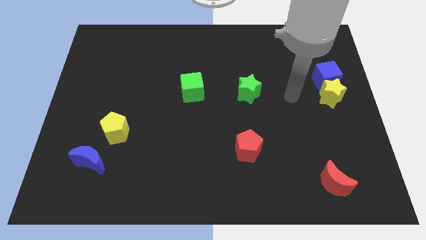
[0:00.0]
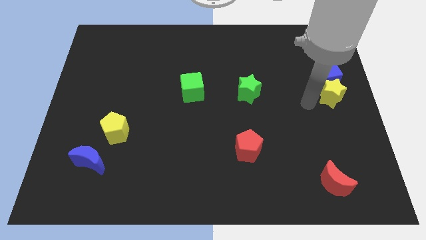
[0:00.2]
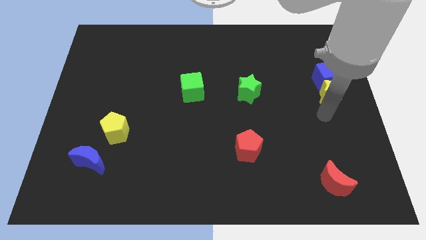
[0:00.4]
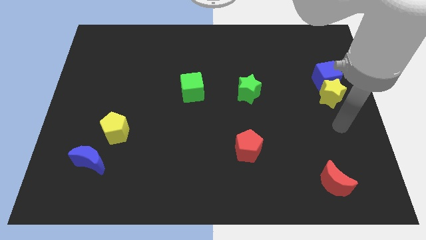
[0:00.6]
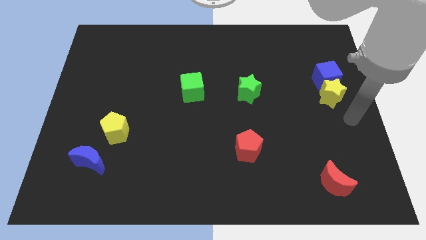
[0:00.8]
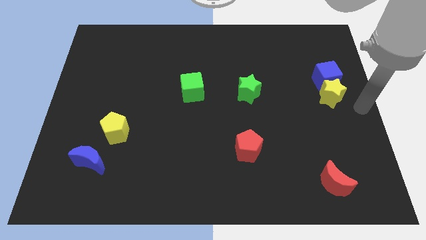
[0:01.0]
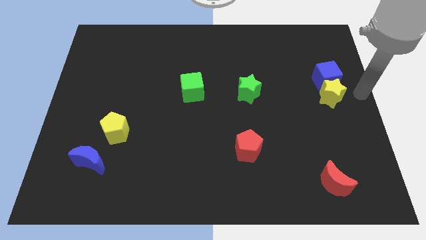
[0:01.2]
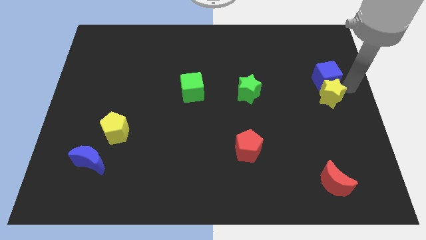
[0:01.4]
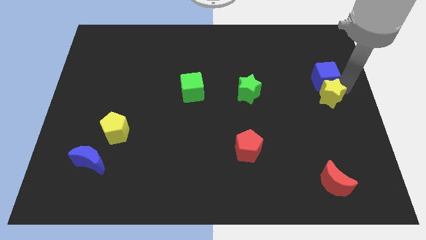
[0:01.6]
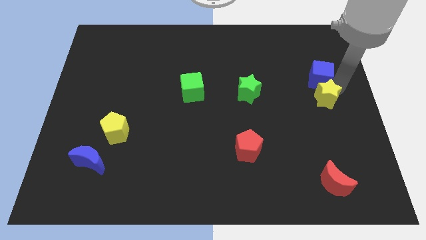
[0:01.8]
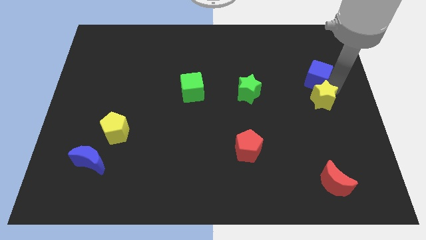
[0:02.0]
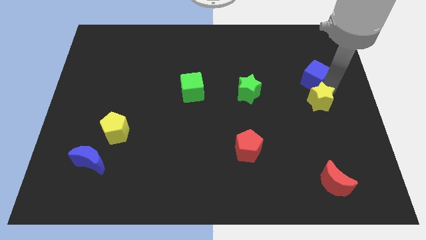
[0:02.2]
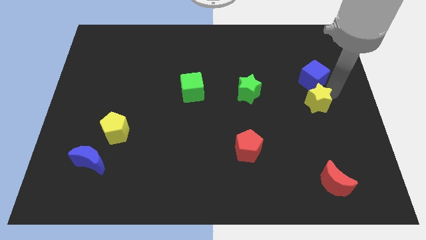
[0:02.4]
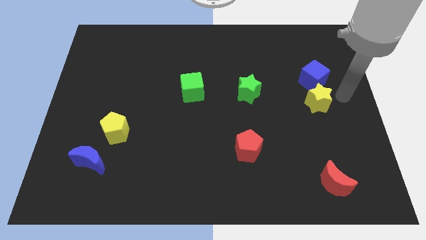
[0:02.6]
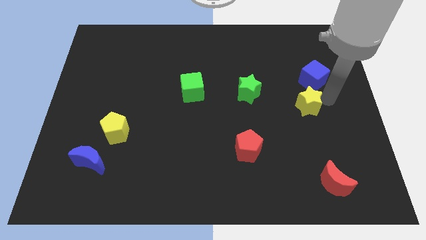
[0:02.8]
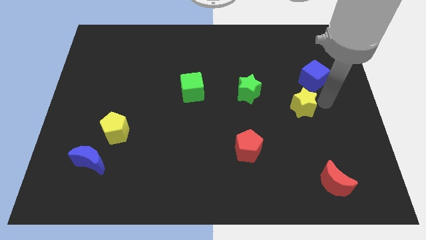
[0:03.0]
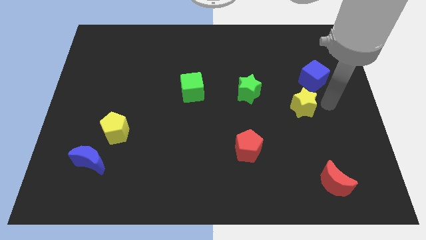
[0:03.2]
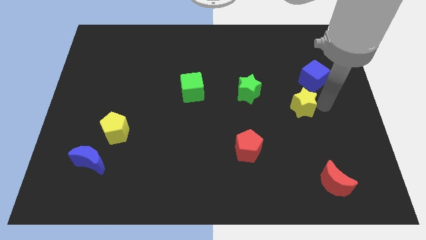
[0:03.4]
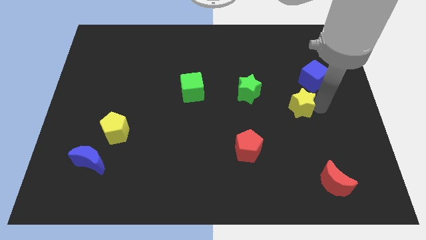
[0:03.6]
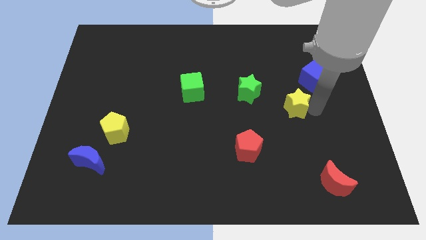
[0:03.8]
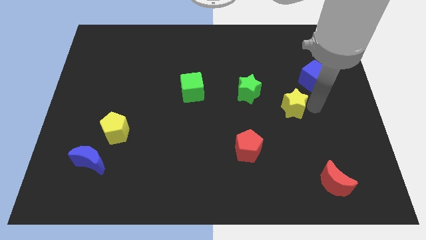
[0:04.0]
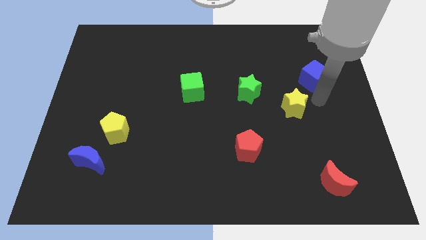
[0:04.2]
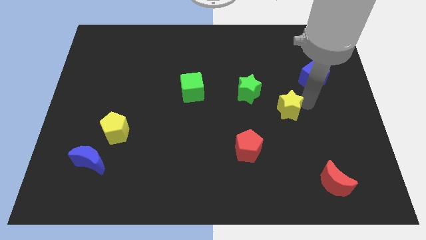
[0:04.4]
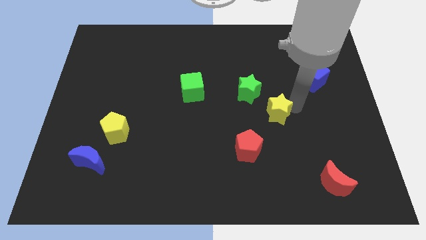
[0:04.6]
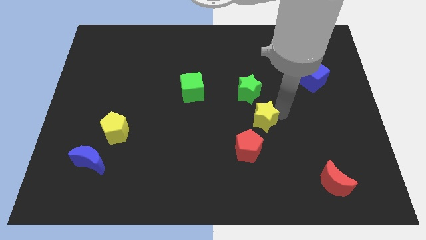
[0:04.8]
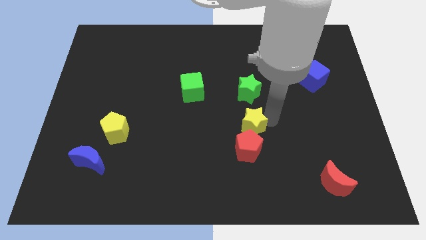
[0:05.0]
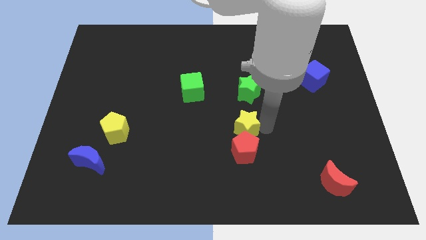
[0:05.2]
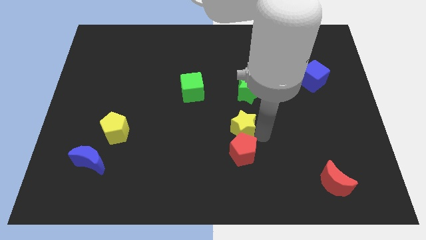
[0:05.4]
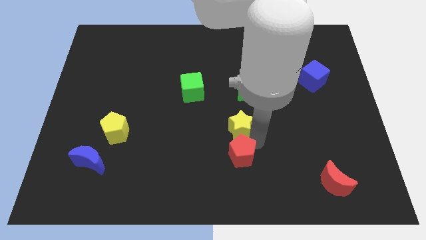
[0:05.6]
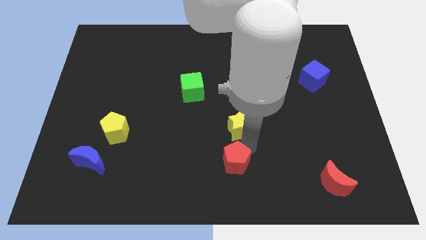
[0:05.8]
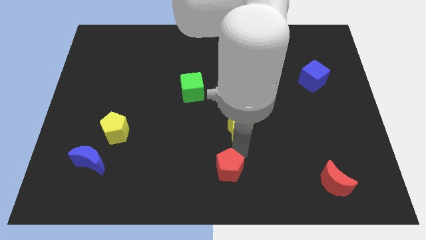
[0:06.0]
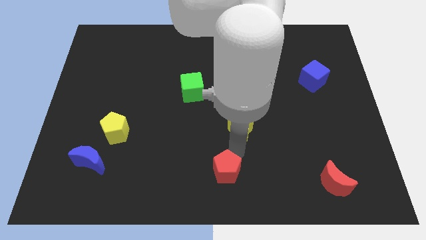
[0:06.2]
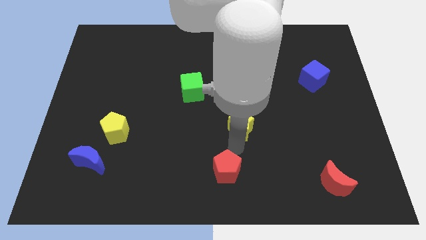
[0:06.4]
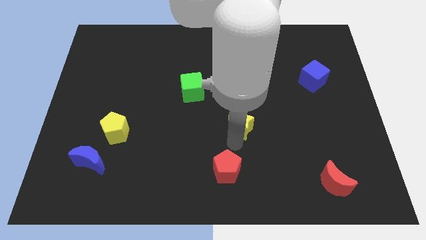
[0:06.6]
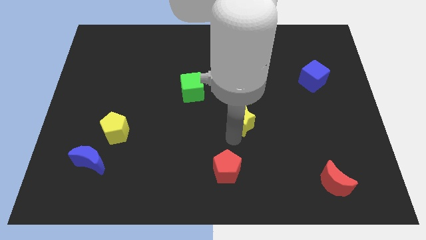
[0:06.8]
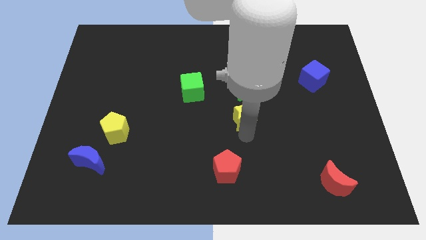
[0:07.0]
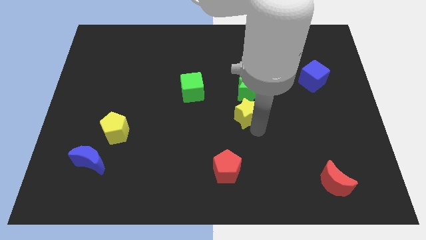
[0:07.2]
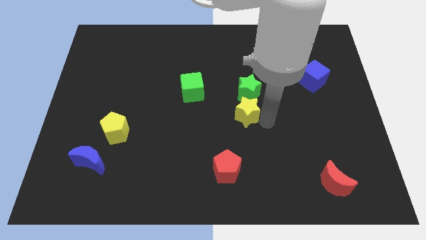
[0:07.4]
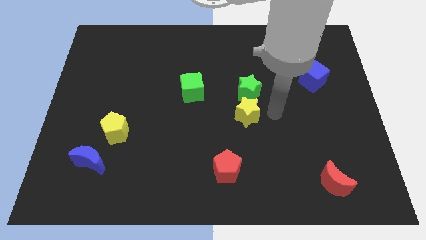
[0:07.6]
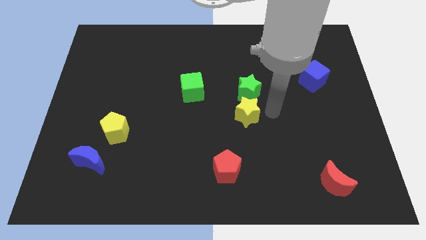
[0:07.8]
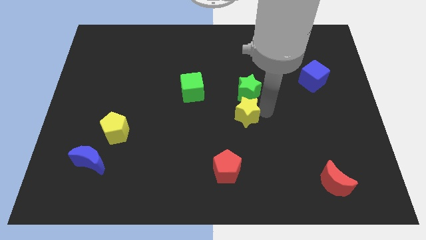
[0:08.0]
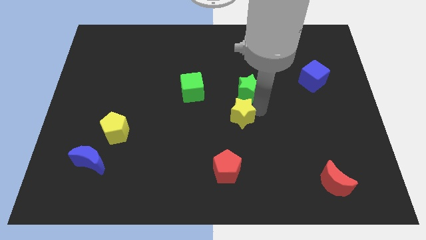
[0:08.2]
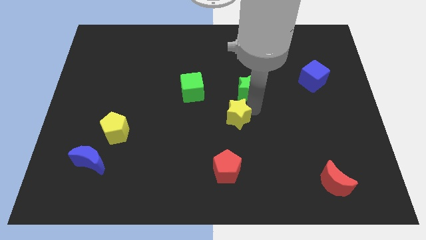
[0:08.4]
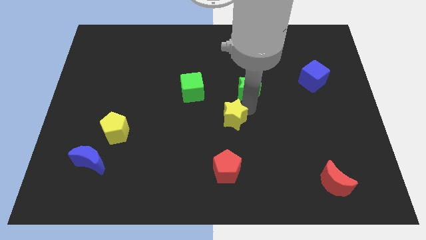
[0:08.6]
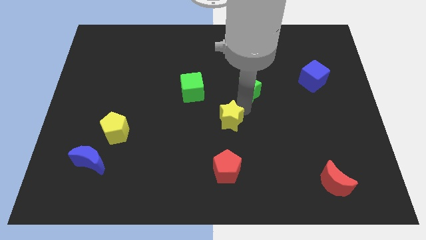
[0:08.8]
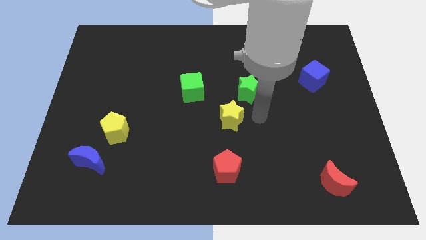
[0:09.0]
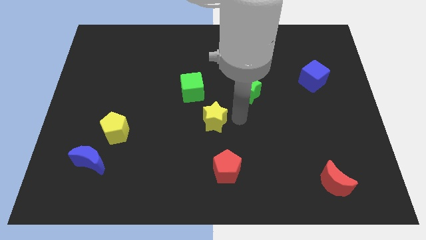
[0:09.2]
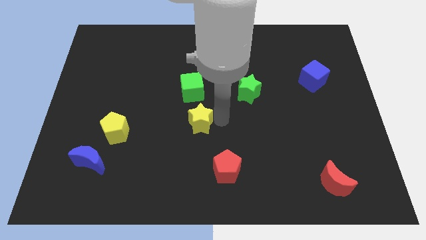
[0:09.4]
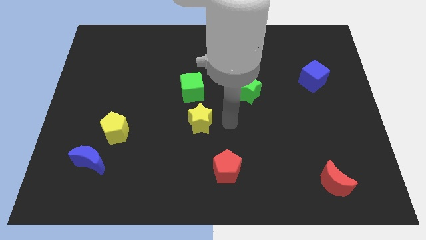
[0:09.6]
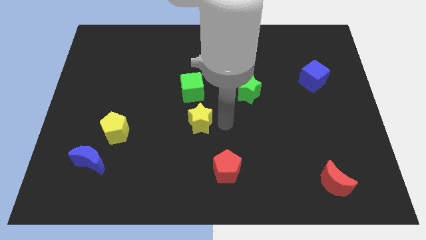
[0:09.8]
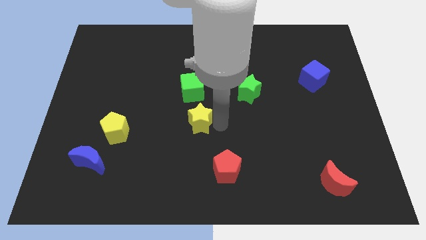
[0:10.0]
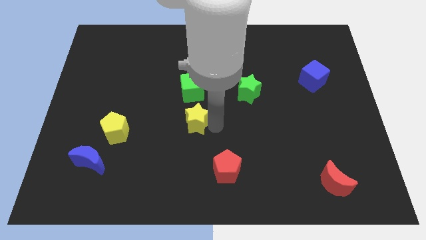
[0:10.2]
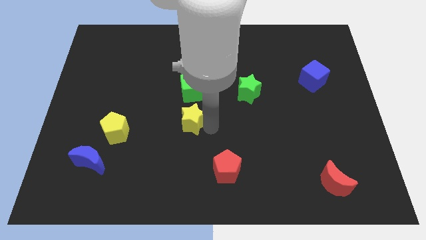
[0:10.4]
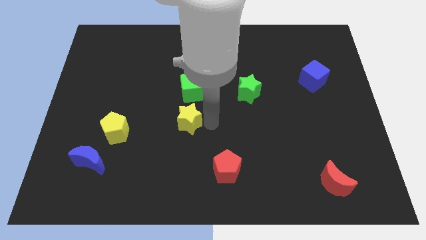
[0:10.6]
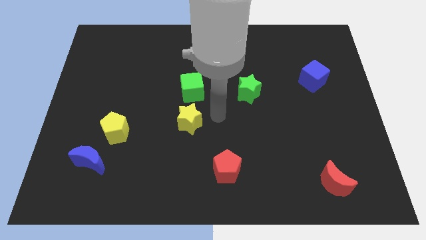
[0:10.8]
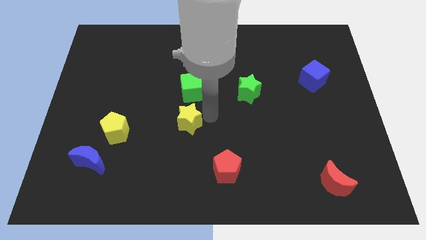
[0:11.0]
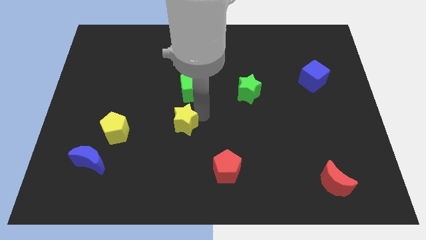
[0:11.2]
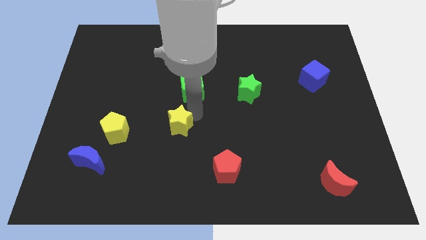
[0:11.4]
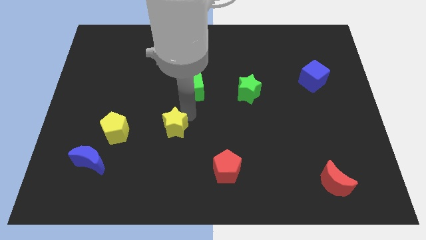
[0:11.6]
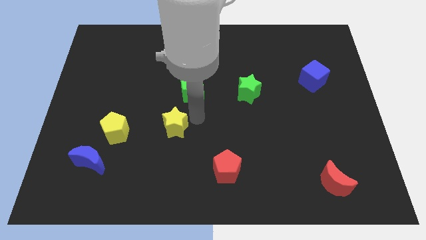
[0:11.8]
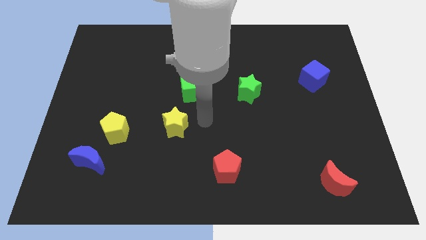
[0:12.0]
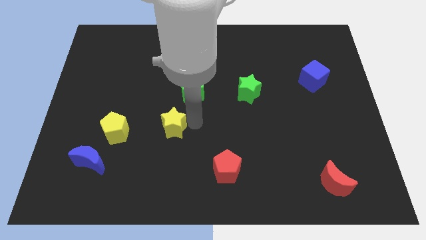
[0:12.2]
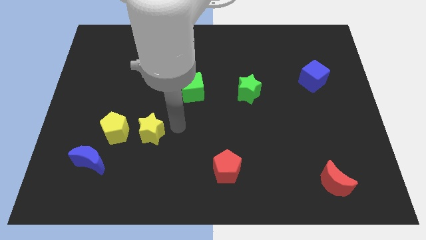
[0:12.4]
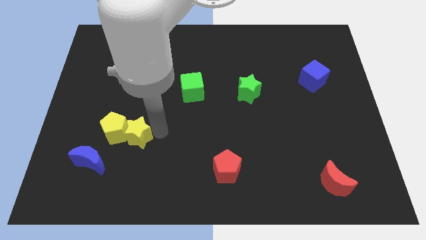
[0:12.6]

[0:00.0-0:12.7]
slide the yellow star towards the yellow pentagon

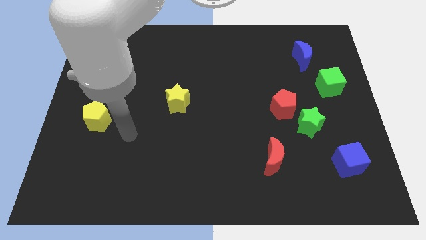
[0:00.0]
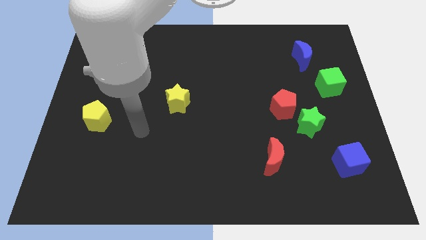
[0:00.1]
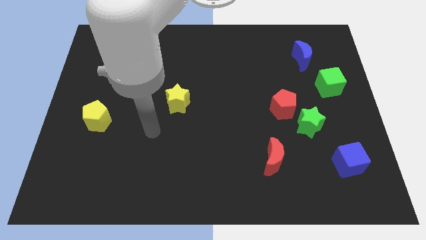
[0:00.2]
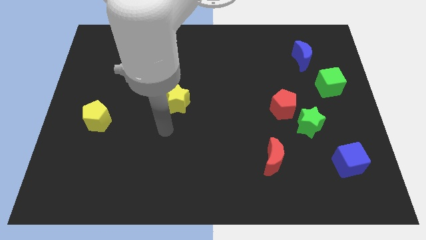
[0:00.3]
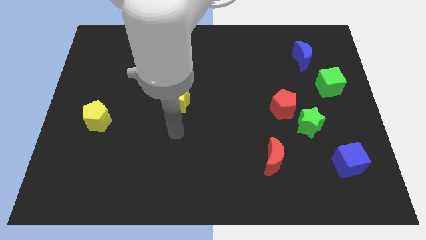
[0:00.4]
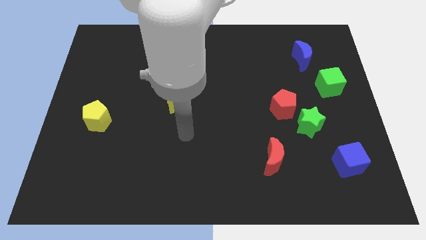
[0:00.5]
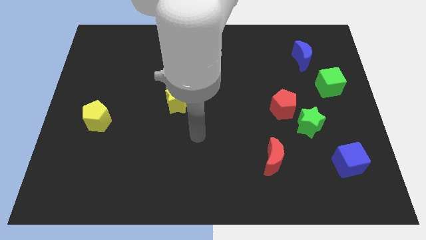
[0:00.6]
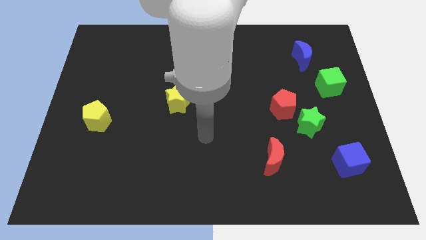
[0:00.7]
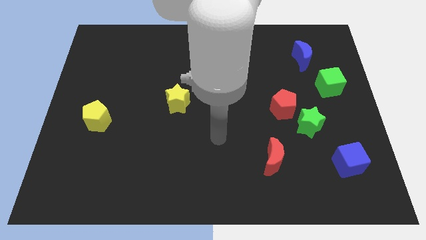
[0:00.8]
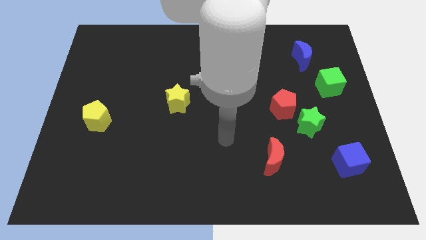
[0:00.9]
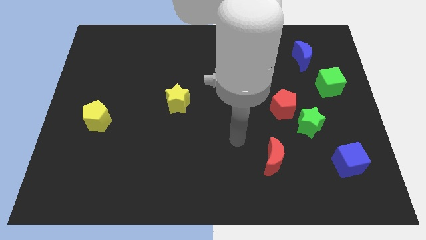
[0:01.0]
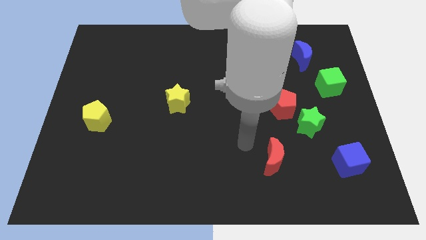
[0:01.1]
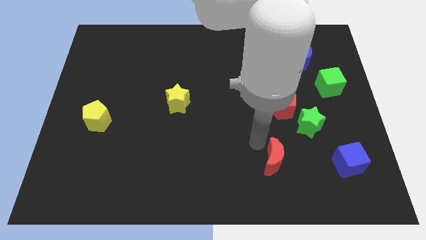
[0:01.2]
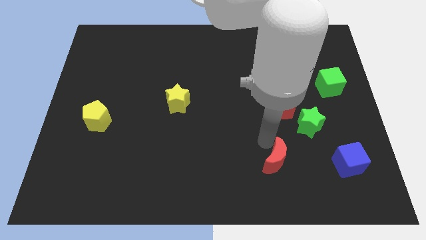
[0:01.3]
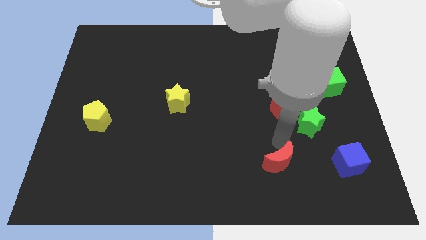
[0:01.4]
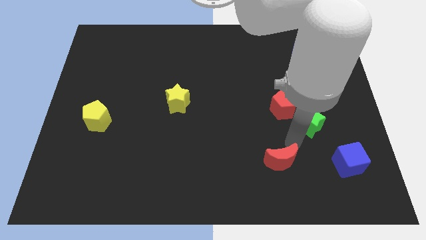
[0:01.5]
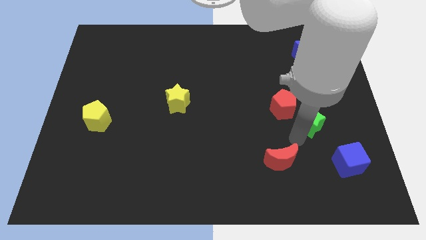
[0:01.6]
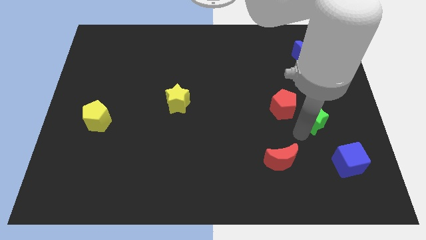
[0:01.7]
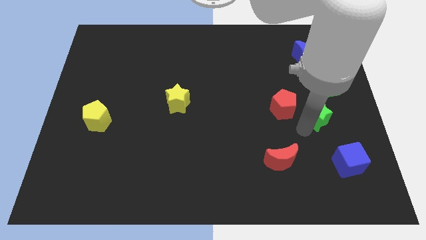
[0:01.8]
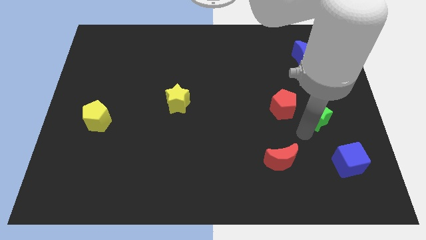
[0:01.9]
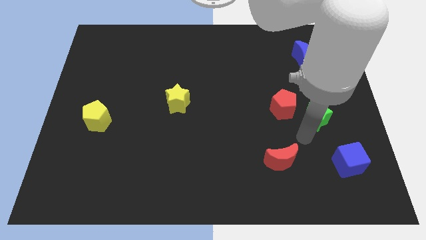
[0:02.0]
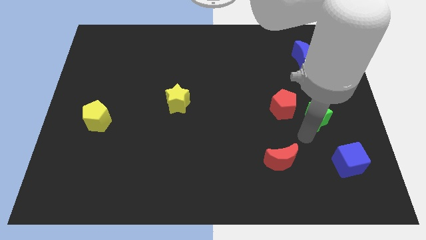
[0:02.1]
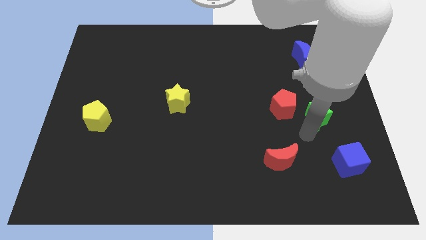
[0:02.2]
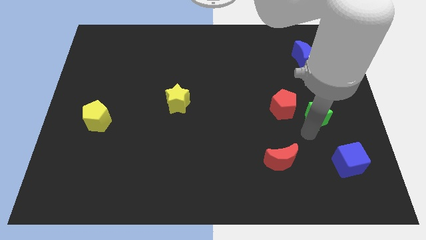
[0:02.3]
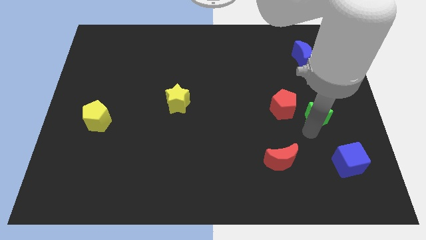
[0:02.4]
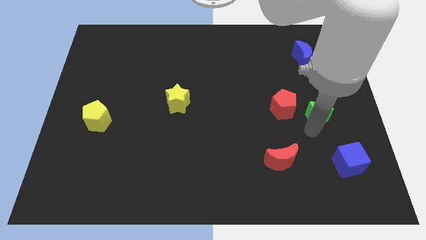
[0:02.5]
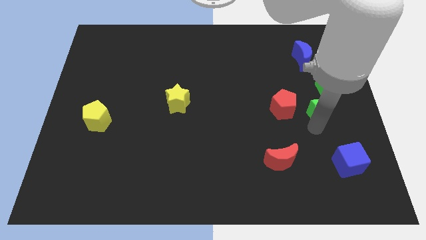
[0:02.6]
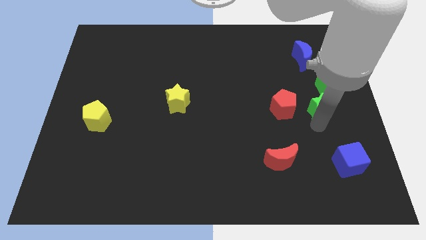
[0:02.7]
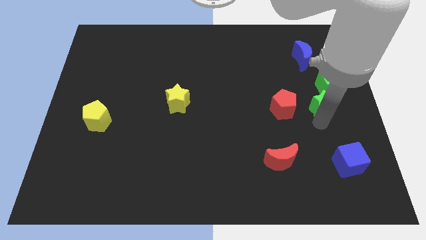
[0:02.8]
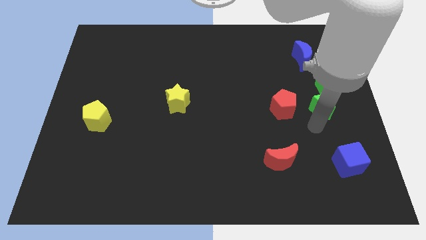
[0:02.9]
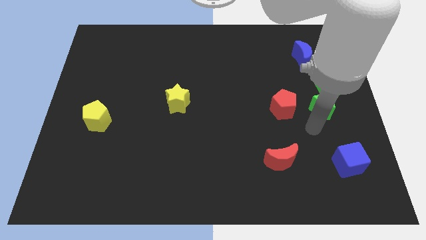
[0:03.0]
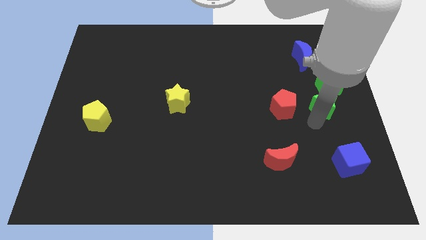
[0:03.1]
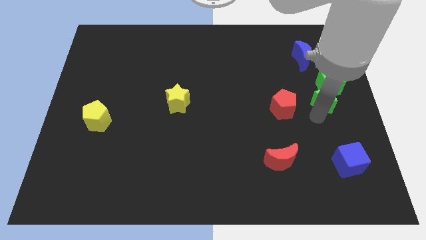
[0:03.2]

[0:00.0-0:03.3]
slide the green star next to the green cube
